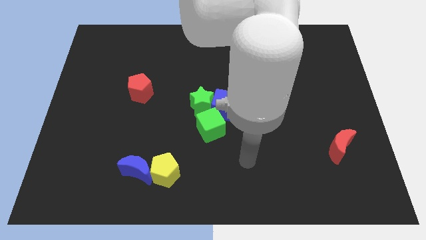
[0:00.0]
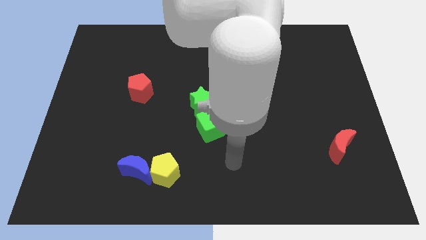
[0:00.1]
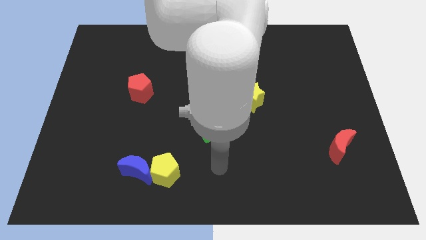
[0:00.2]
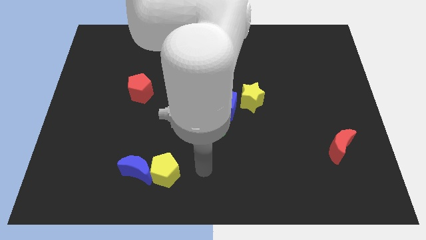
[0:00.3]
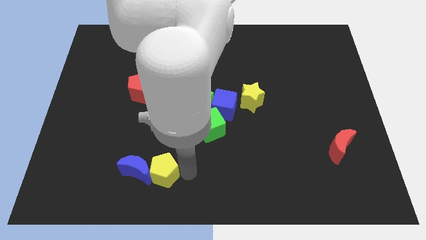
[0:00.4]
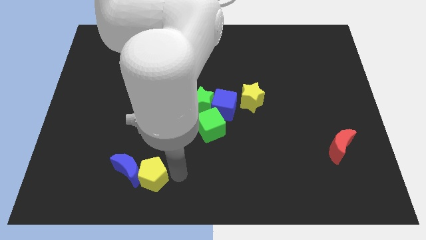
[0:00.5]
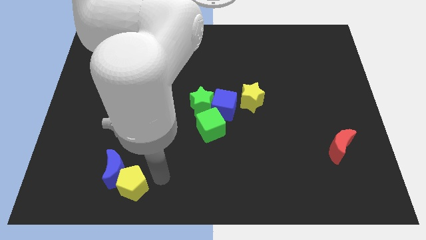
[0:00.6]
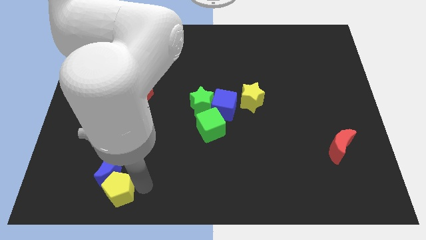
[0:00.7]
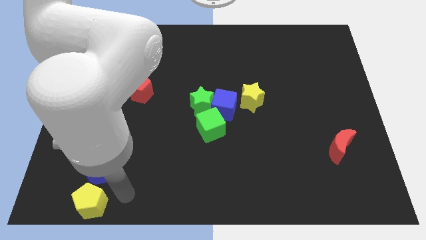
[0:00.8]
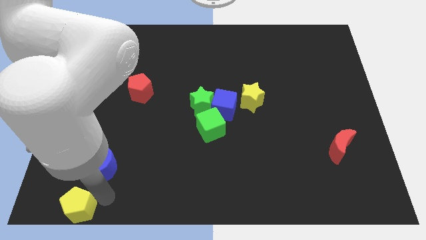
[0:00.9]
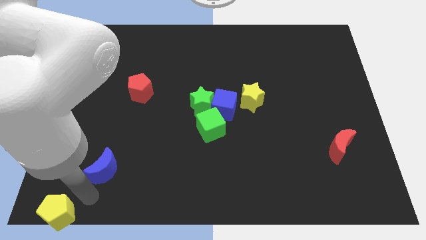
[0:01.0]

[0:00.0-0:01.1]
move the blue moon away from the yellow pentagon

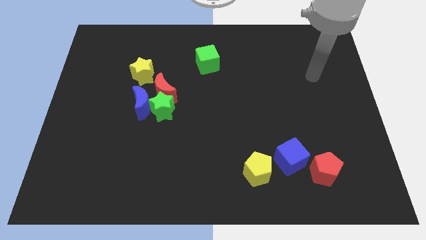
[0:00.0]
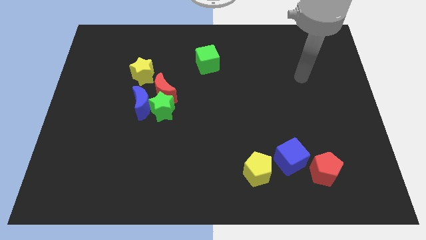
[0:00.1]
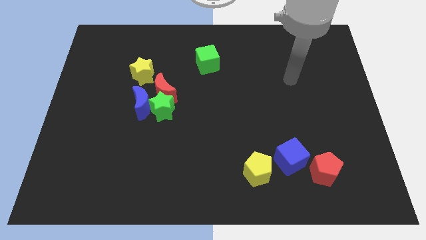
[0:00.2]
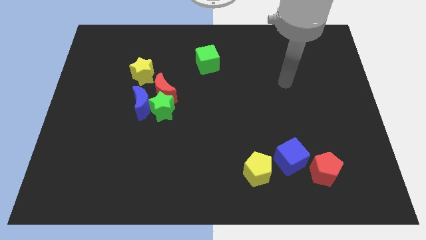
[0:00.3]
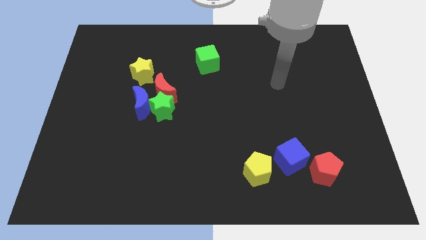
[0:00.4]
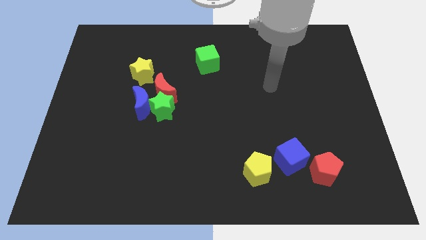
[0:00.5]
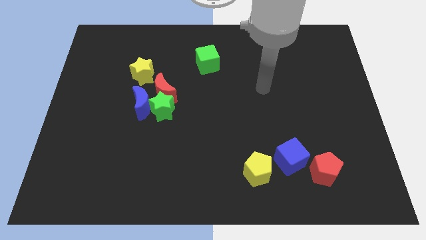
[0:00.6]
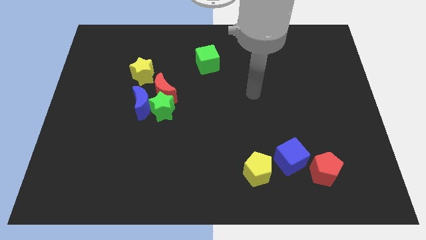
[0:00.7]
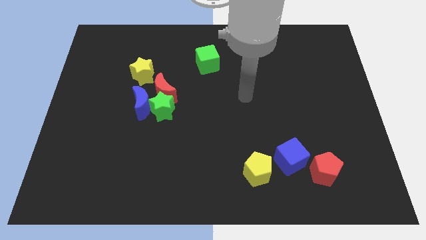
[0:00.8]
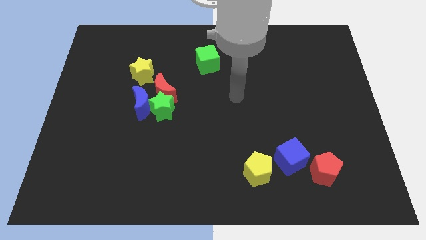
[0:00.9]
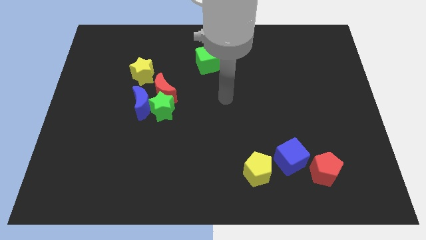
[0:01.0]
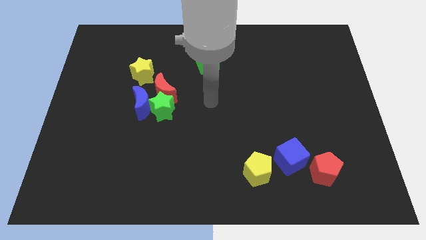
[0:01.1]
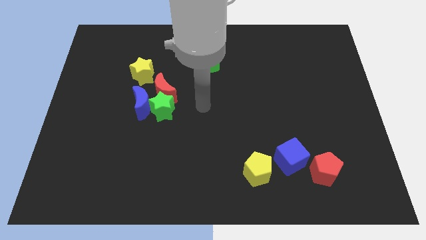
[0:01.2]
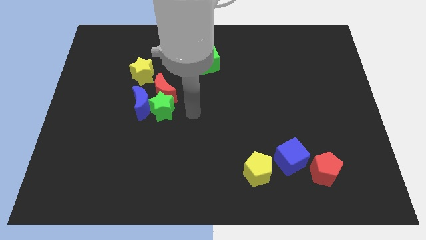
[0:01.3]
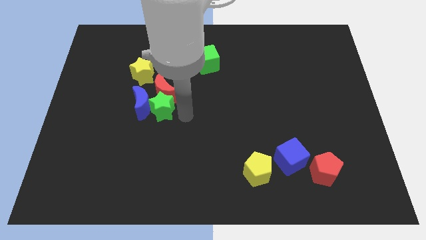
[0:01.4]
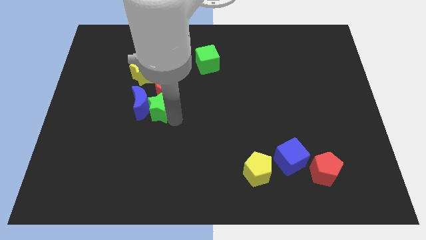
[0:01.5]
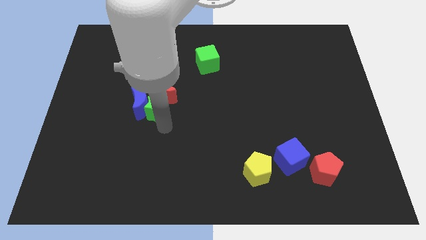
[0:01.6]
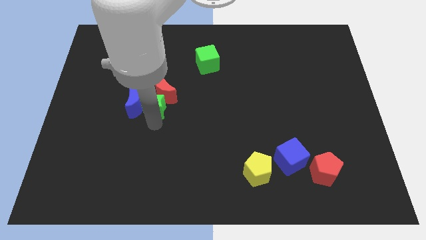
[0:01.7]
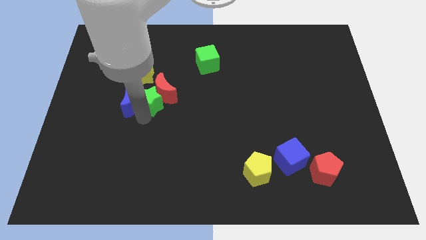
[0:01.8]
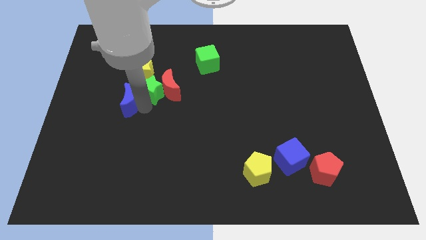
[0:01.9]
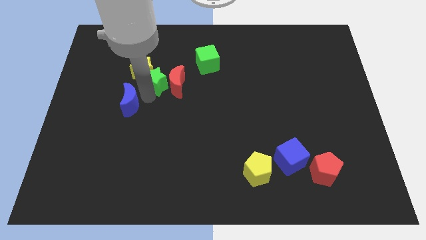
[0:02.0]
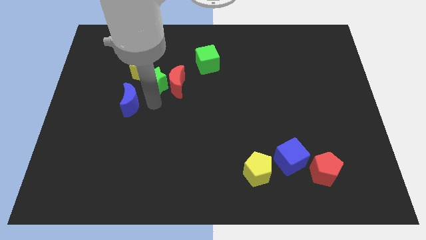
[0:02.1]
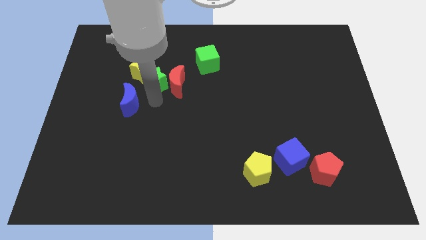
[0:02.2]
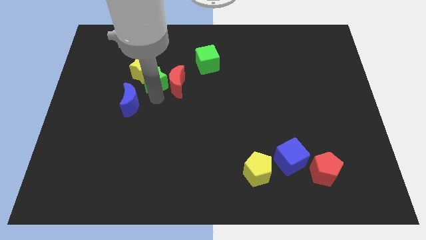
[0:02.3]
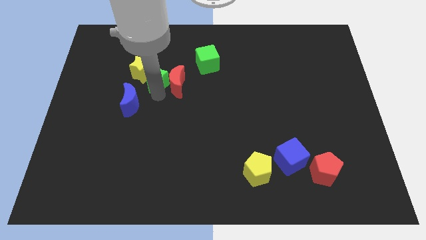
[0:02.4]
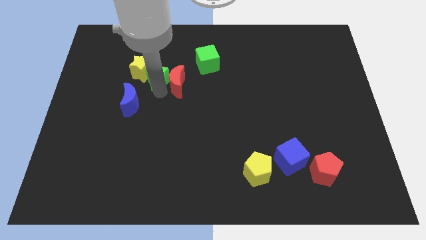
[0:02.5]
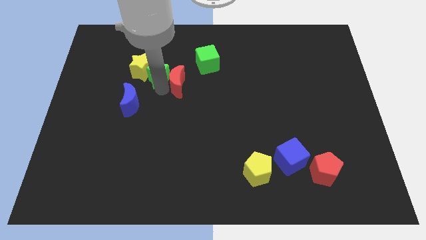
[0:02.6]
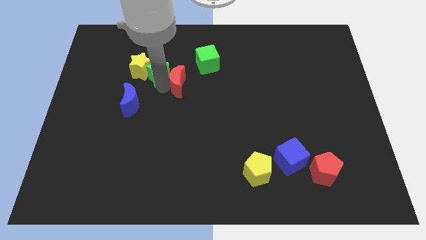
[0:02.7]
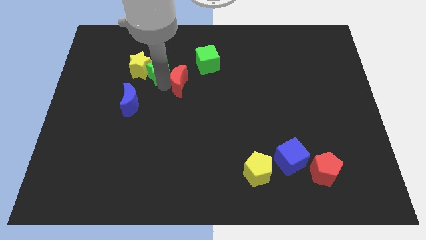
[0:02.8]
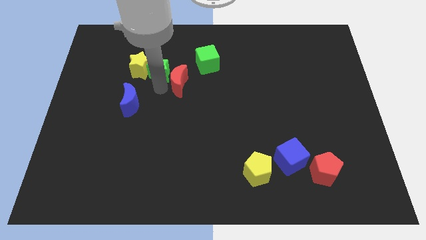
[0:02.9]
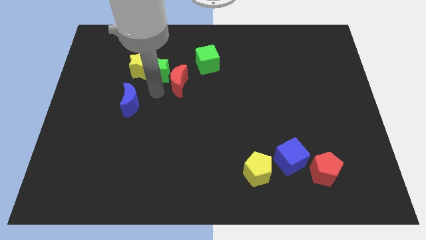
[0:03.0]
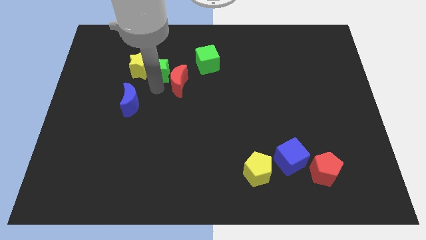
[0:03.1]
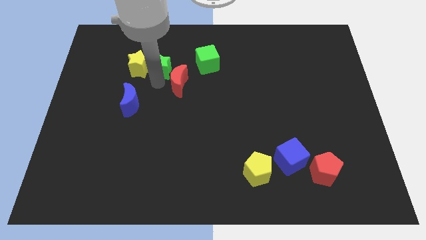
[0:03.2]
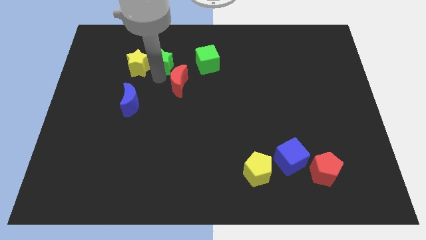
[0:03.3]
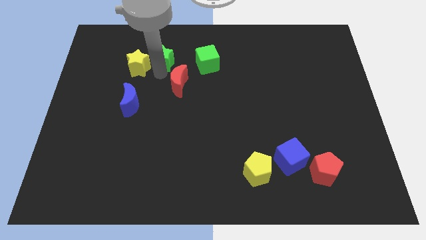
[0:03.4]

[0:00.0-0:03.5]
move the green star away from the blue moon and red moon

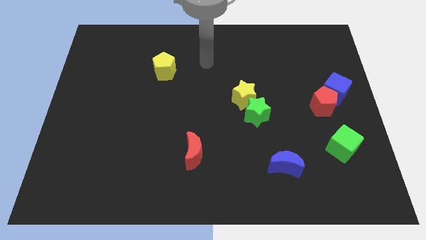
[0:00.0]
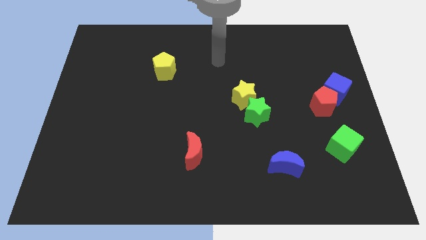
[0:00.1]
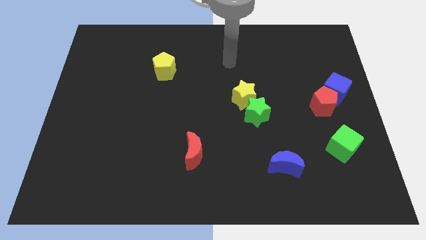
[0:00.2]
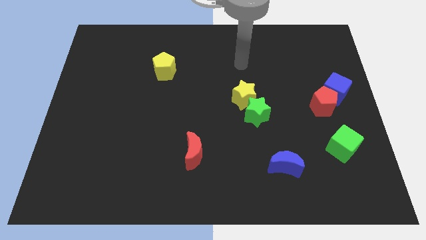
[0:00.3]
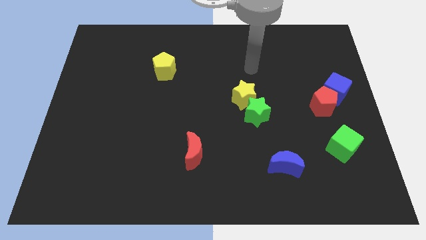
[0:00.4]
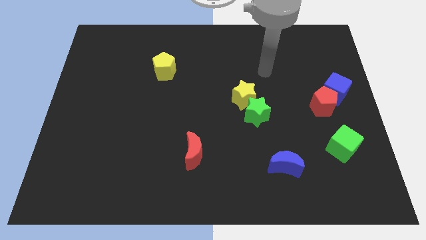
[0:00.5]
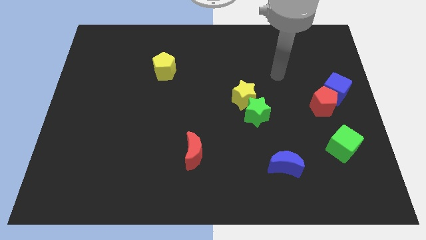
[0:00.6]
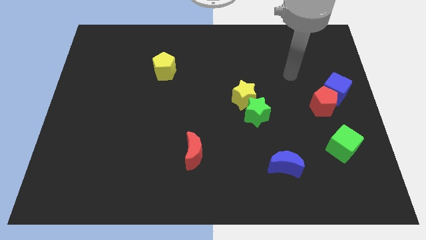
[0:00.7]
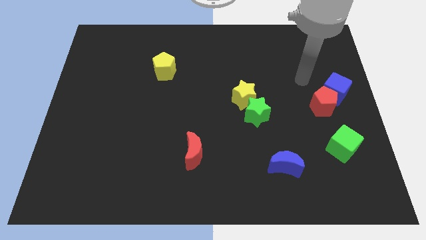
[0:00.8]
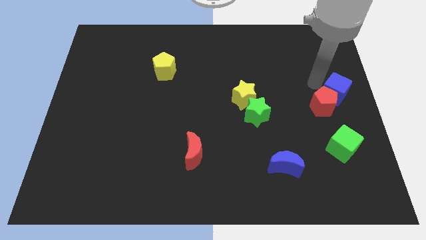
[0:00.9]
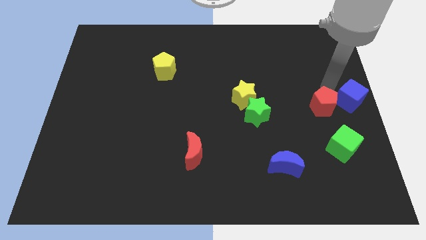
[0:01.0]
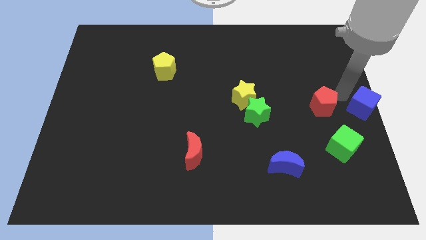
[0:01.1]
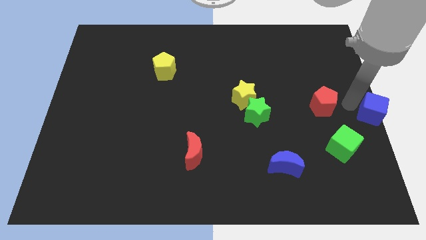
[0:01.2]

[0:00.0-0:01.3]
move the red pentagon away from the blue cube

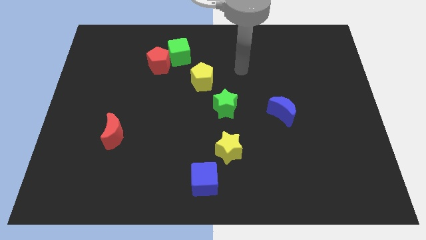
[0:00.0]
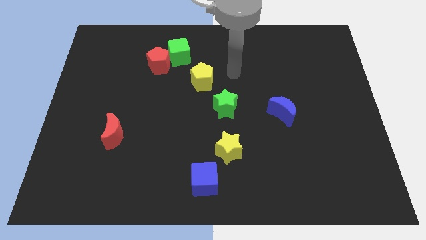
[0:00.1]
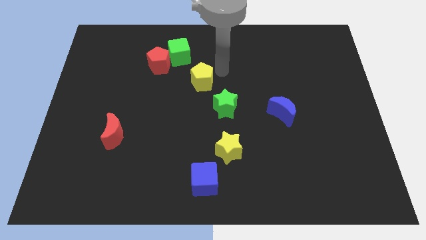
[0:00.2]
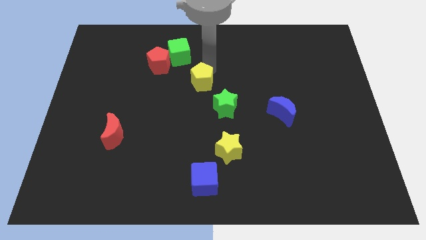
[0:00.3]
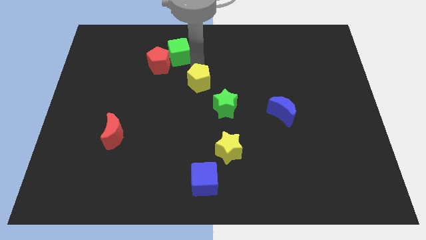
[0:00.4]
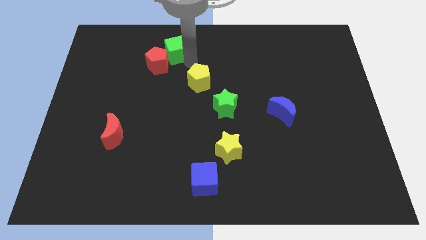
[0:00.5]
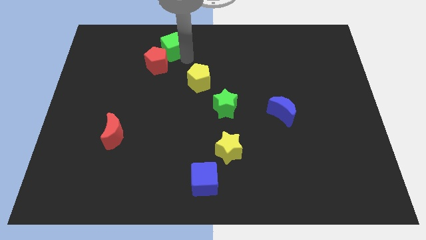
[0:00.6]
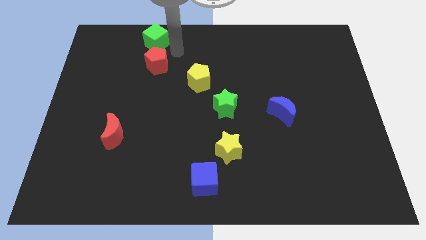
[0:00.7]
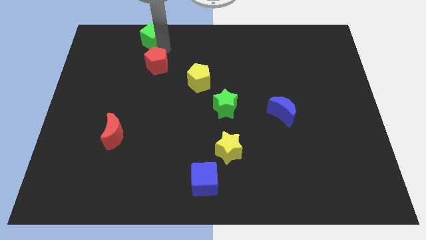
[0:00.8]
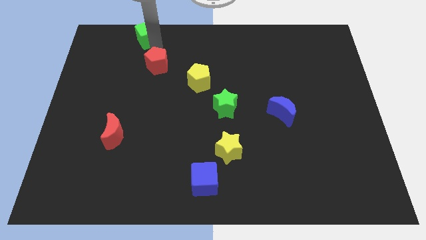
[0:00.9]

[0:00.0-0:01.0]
move the red pentagon away from the green cube

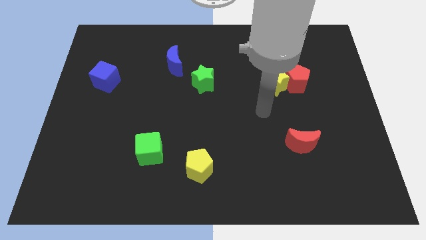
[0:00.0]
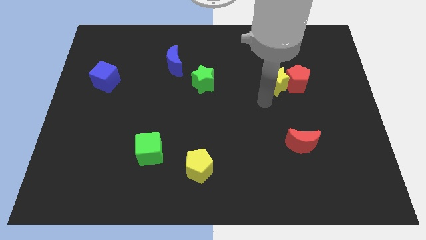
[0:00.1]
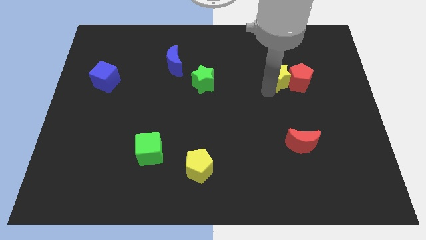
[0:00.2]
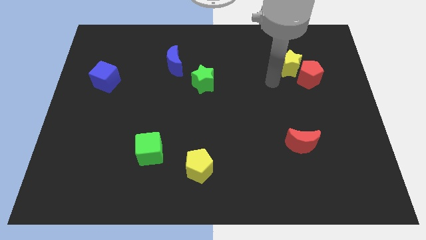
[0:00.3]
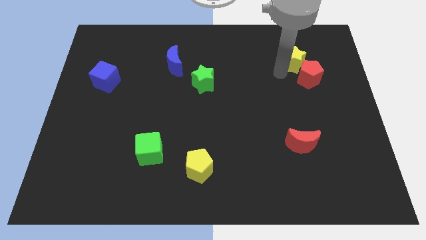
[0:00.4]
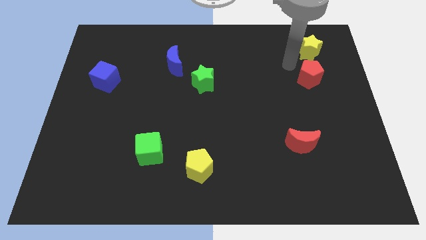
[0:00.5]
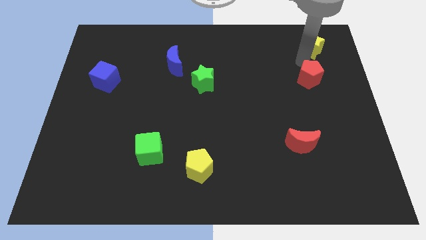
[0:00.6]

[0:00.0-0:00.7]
pull the red pentagon apart from the yellow star

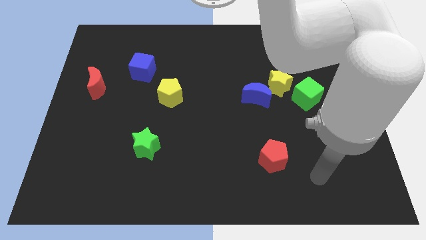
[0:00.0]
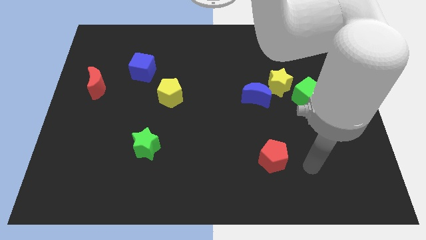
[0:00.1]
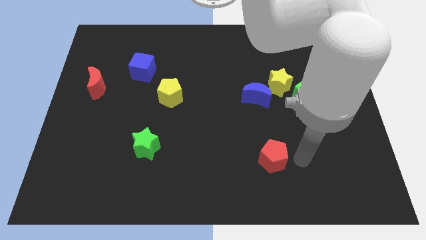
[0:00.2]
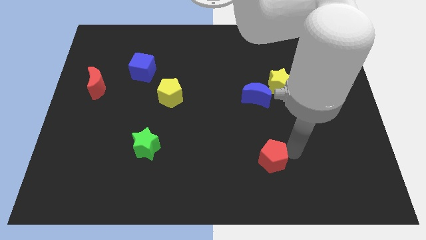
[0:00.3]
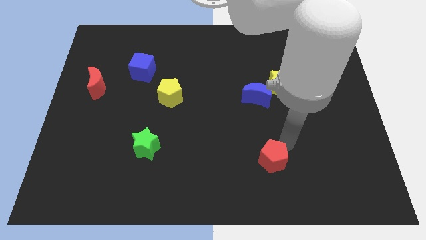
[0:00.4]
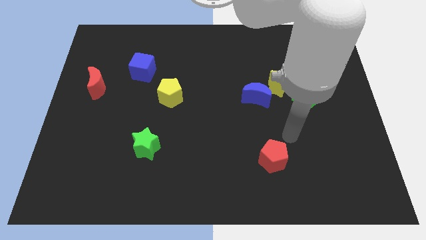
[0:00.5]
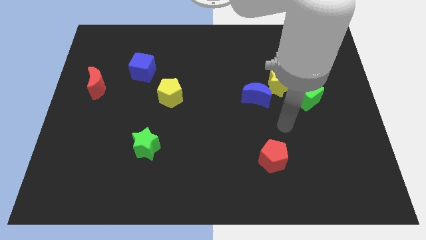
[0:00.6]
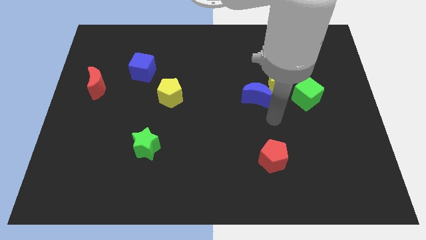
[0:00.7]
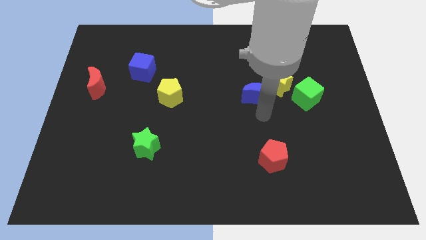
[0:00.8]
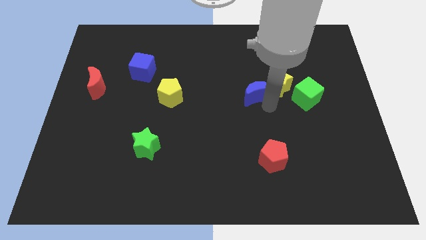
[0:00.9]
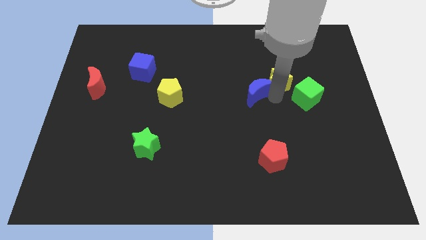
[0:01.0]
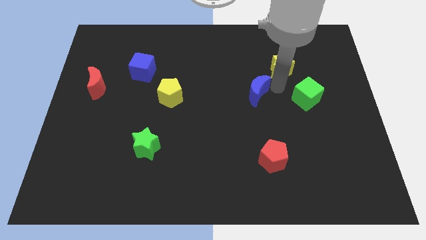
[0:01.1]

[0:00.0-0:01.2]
move the blue moon away from the yellow star

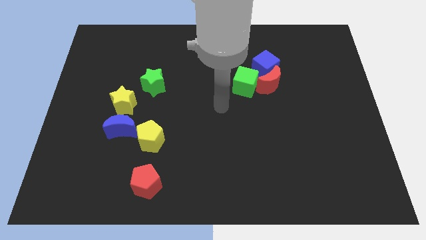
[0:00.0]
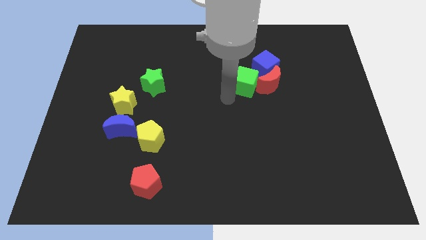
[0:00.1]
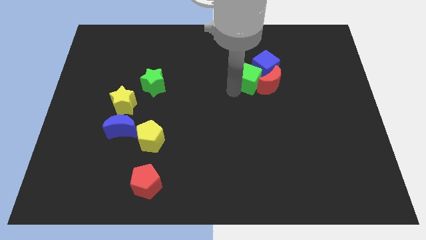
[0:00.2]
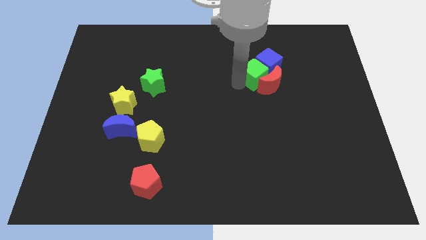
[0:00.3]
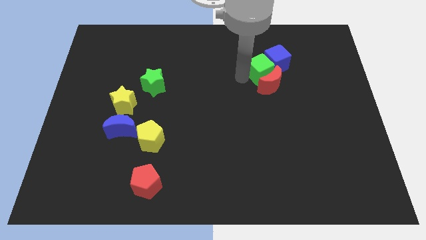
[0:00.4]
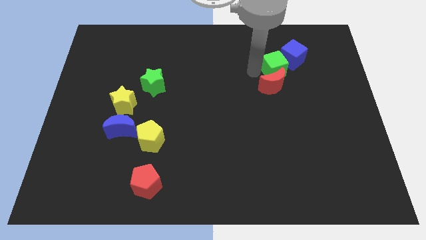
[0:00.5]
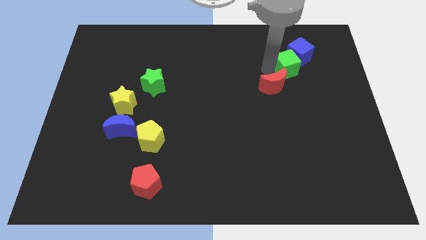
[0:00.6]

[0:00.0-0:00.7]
move the red moon away from the blue cube and green cube
